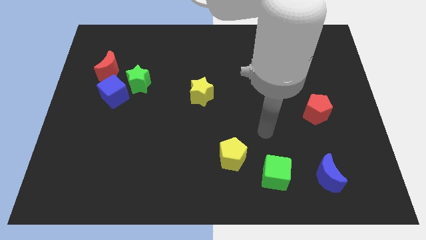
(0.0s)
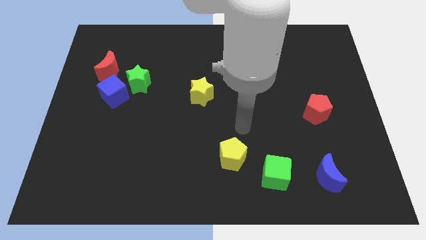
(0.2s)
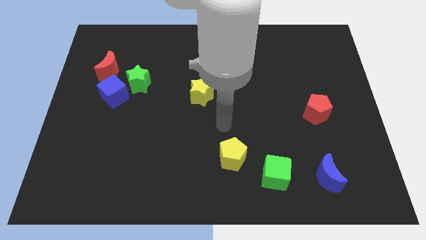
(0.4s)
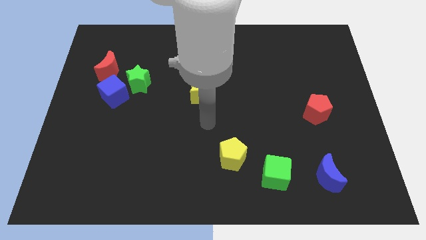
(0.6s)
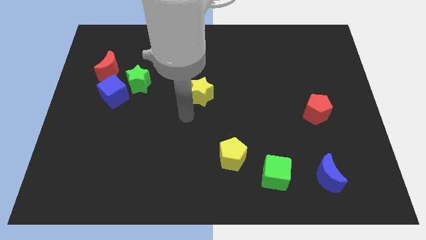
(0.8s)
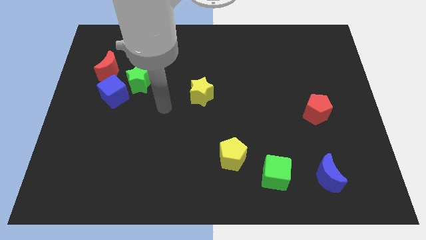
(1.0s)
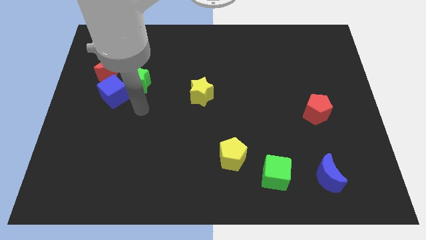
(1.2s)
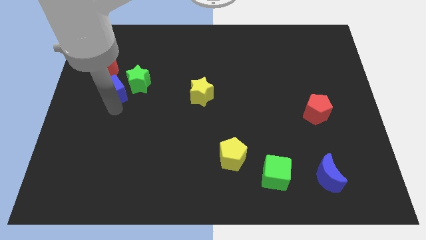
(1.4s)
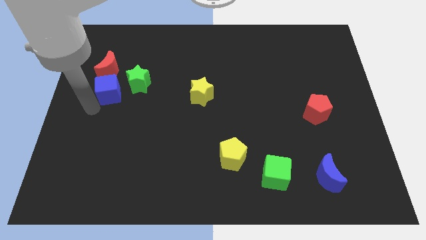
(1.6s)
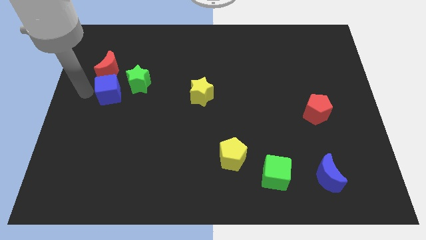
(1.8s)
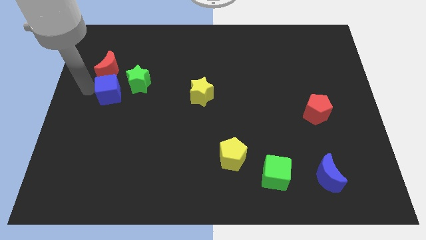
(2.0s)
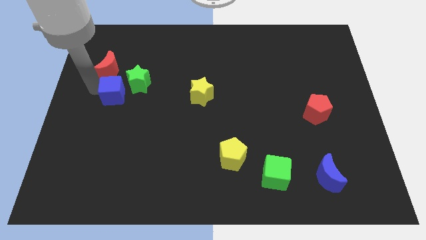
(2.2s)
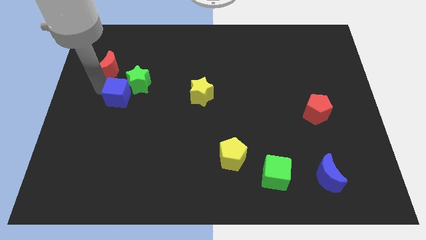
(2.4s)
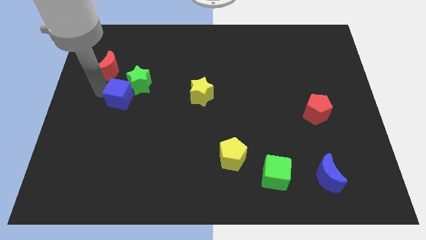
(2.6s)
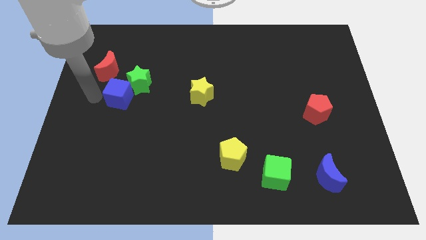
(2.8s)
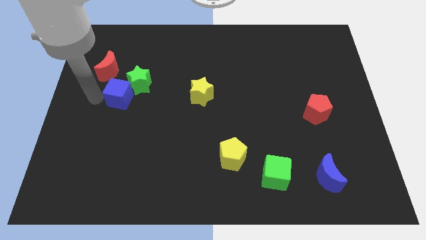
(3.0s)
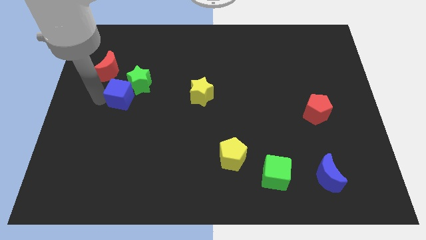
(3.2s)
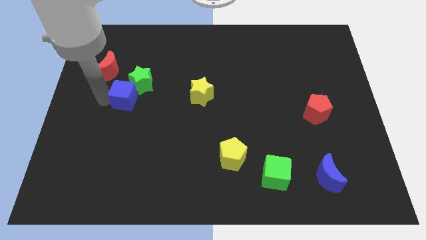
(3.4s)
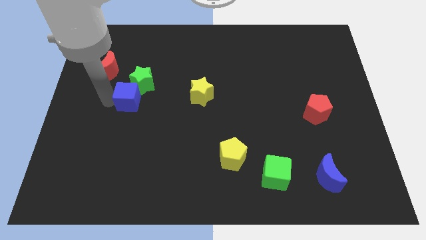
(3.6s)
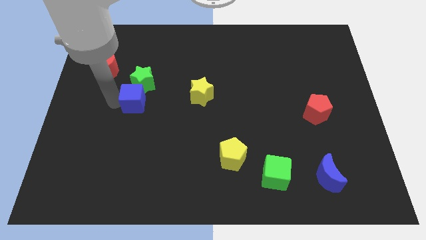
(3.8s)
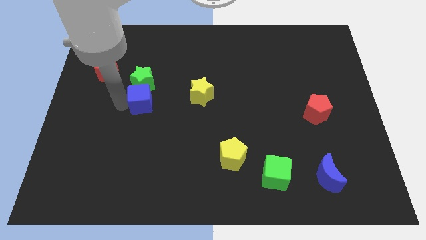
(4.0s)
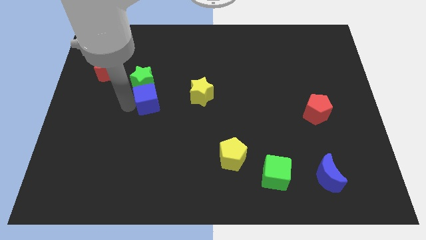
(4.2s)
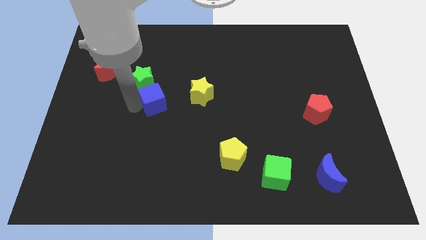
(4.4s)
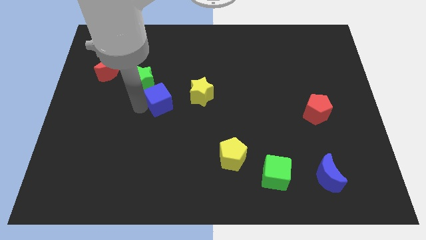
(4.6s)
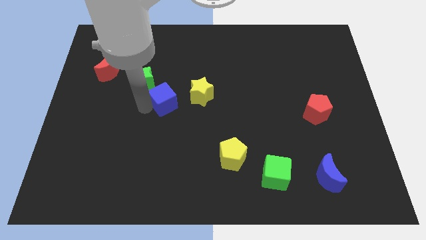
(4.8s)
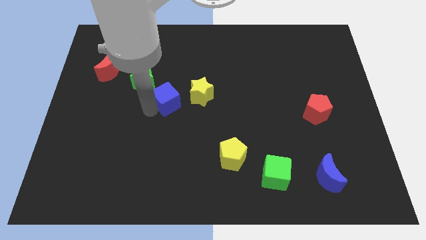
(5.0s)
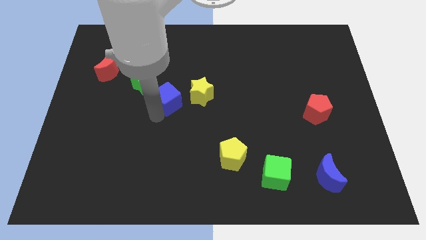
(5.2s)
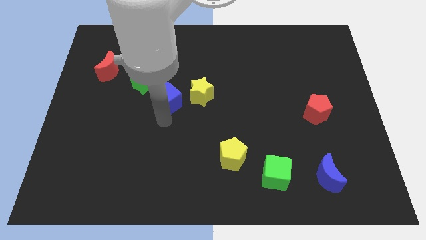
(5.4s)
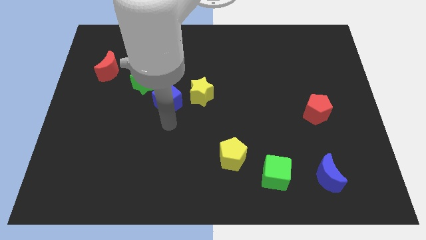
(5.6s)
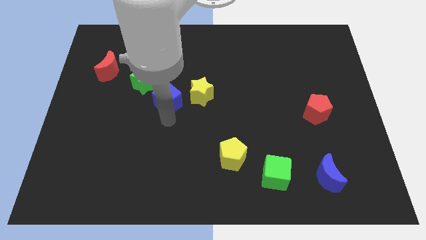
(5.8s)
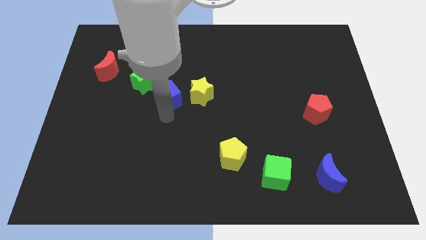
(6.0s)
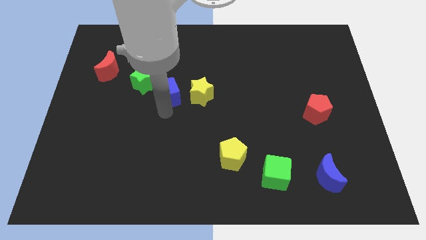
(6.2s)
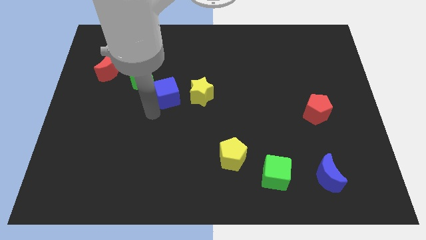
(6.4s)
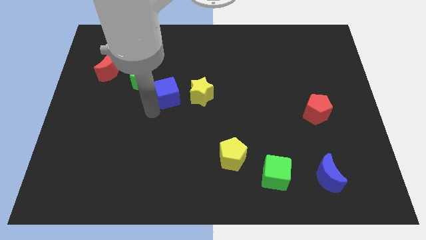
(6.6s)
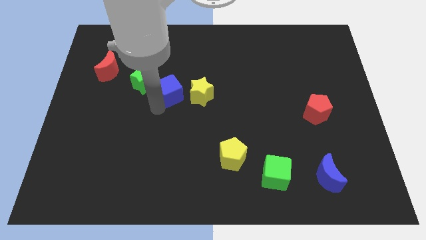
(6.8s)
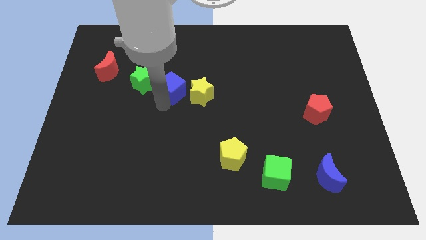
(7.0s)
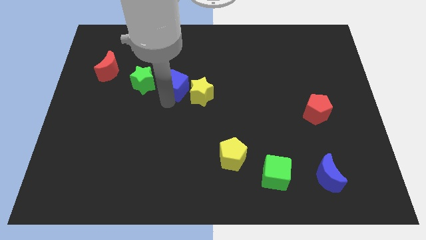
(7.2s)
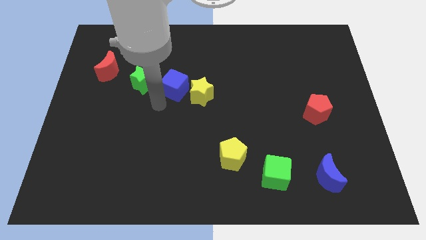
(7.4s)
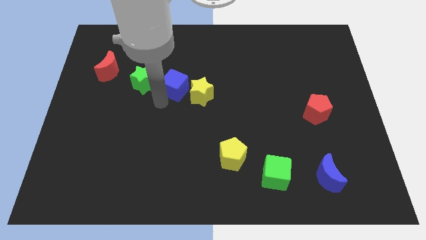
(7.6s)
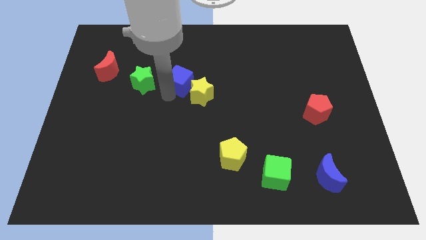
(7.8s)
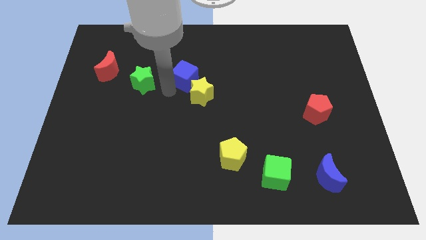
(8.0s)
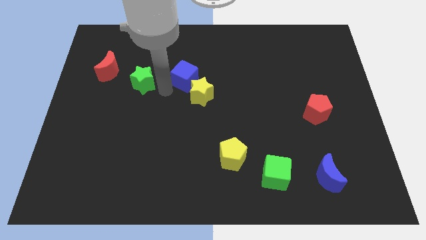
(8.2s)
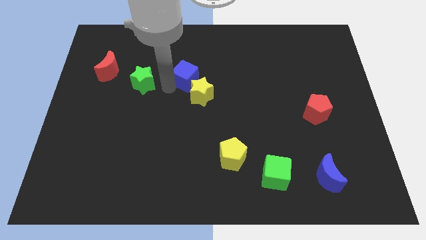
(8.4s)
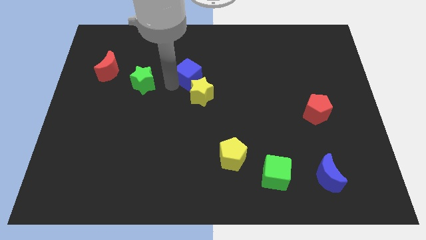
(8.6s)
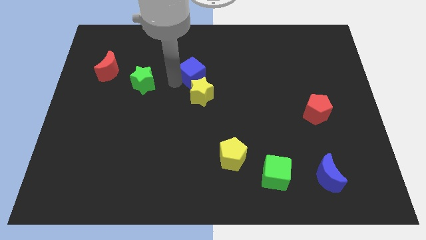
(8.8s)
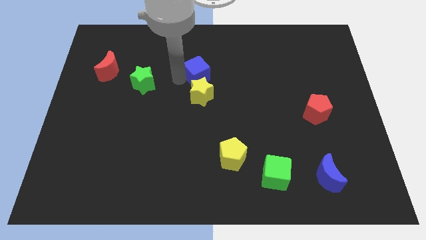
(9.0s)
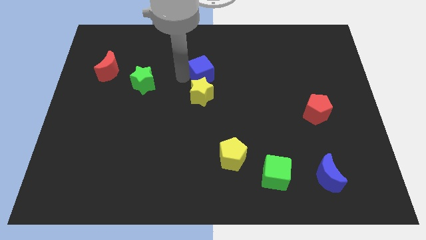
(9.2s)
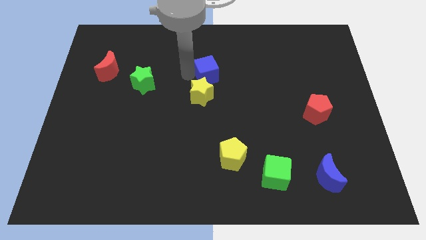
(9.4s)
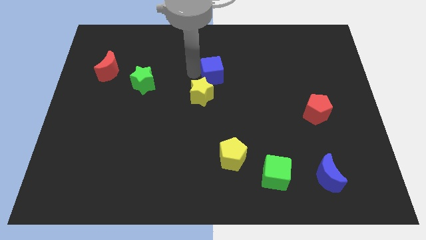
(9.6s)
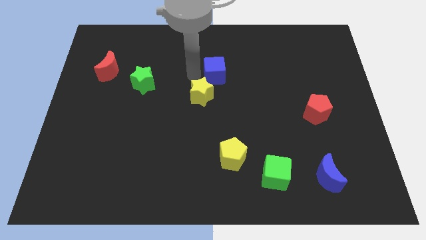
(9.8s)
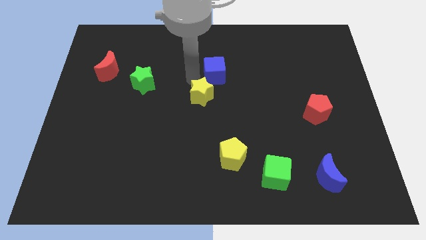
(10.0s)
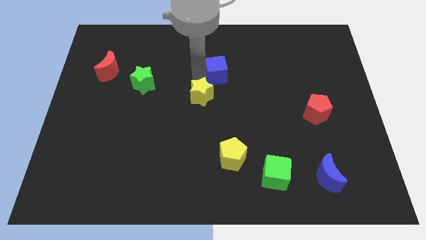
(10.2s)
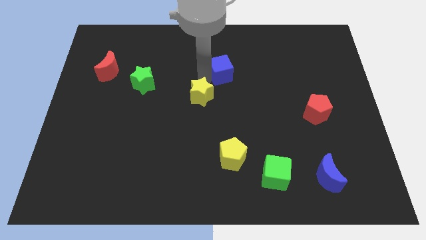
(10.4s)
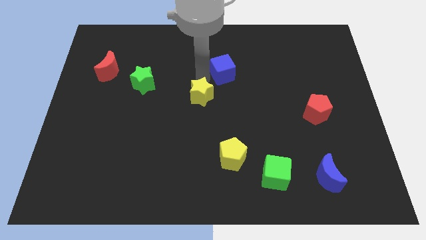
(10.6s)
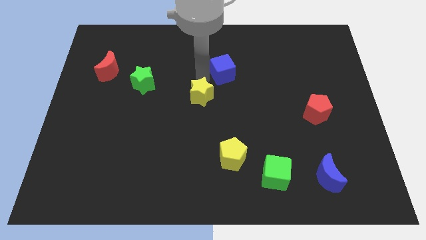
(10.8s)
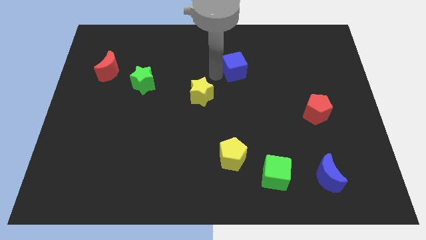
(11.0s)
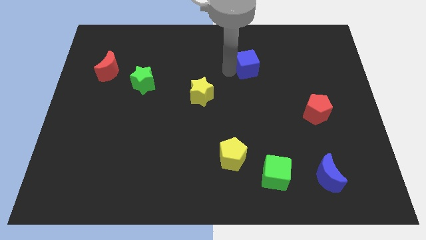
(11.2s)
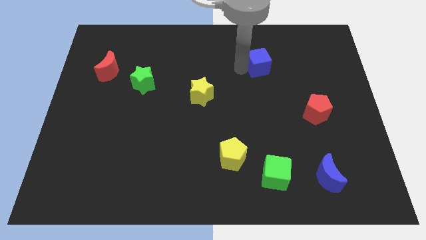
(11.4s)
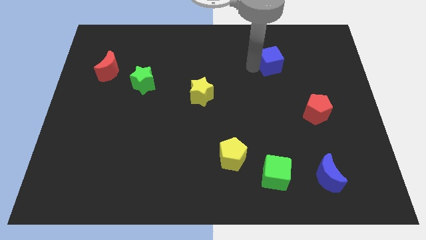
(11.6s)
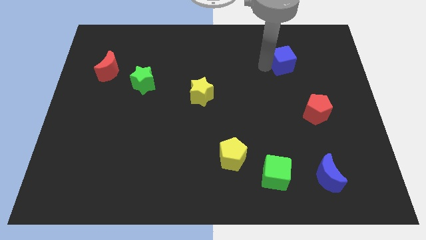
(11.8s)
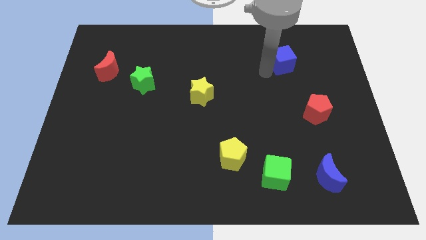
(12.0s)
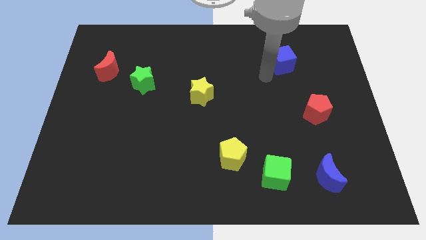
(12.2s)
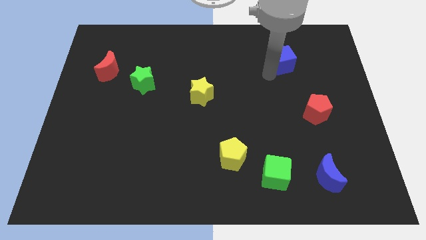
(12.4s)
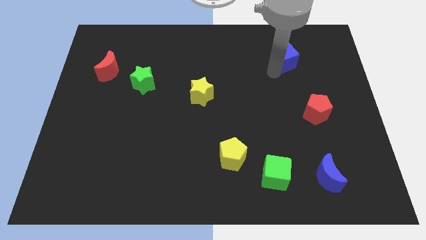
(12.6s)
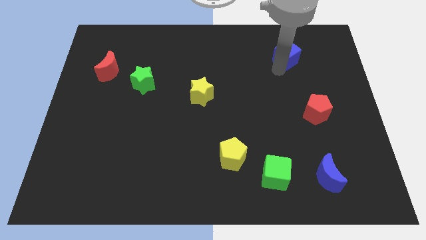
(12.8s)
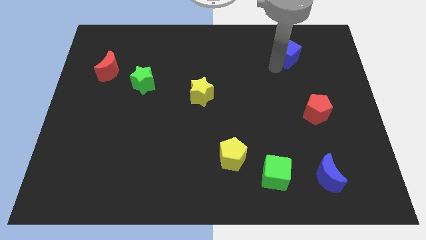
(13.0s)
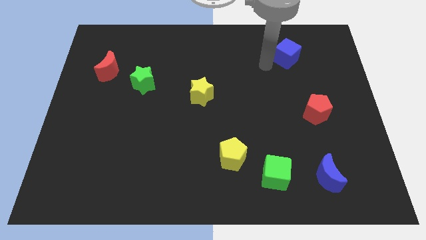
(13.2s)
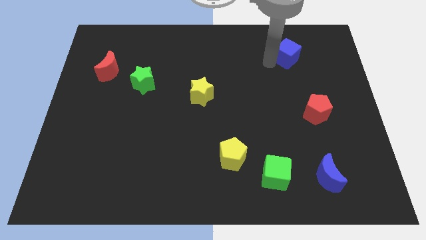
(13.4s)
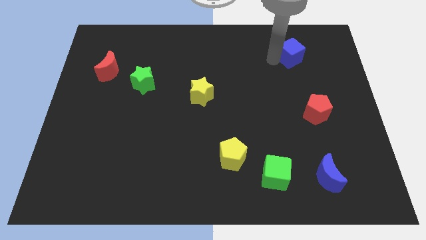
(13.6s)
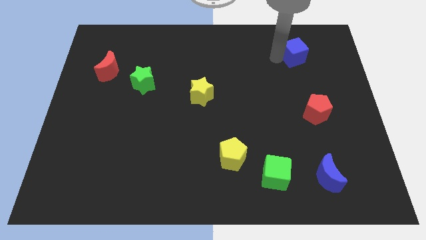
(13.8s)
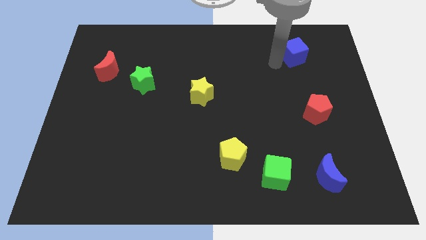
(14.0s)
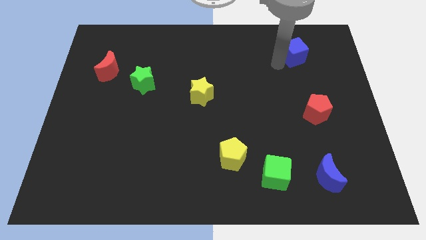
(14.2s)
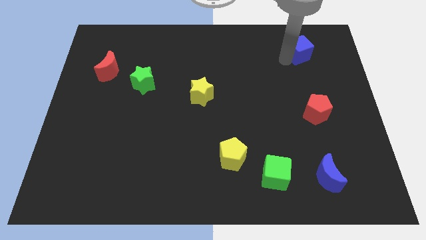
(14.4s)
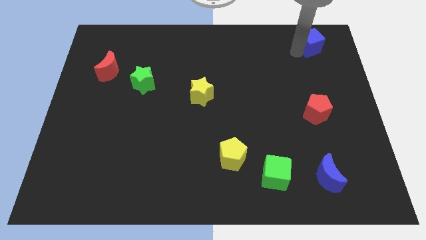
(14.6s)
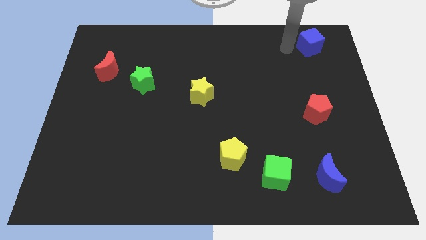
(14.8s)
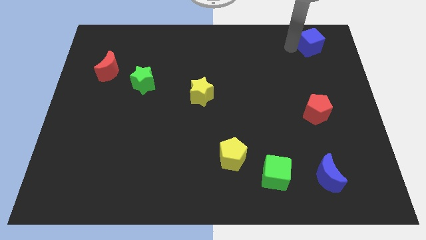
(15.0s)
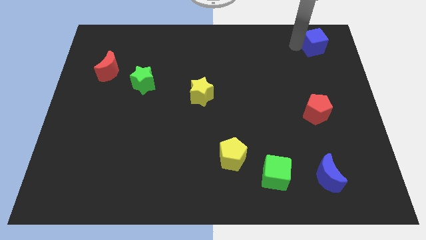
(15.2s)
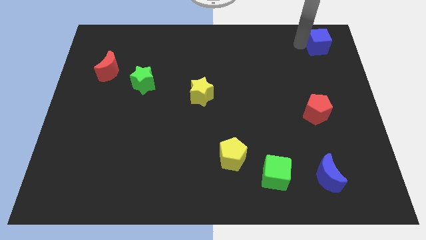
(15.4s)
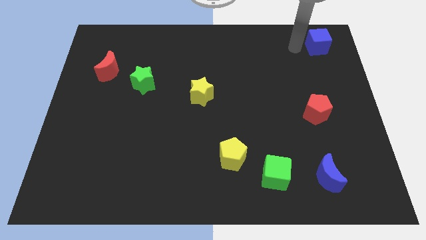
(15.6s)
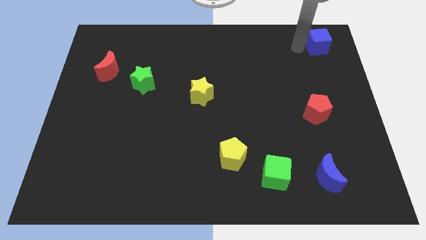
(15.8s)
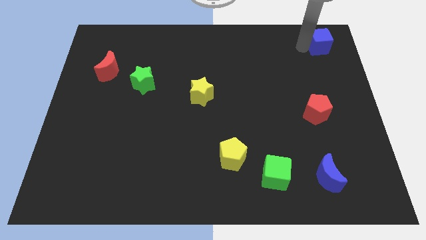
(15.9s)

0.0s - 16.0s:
move the blue cube to the upper right corner
